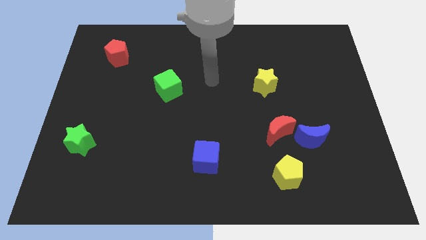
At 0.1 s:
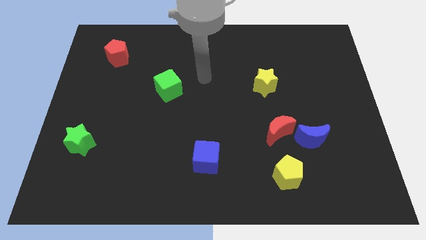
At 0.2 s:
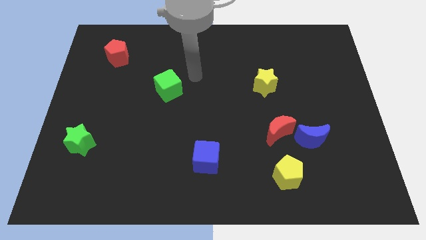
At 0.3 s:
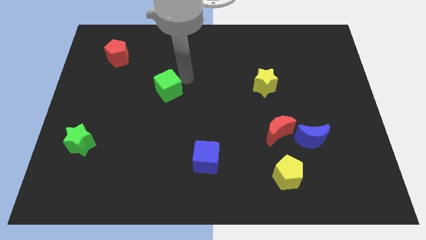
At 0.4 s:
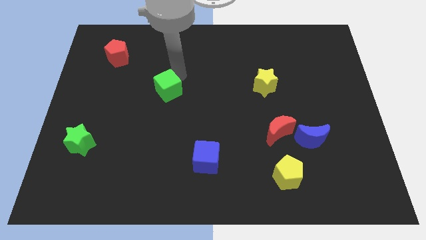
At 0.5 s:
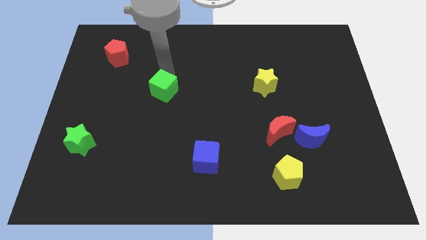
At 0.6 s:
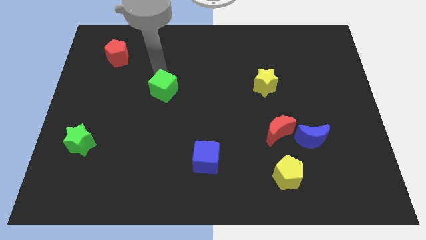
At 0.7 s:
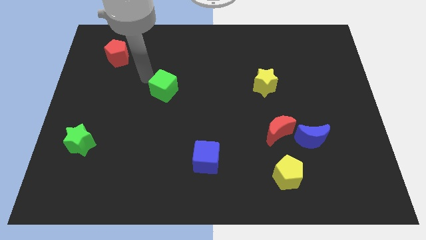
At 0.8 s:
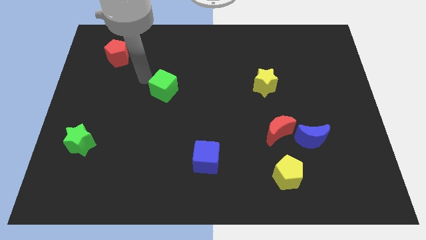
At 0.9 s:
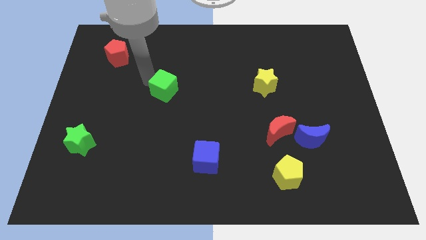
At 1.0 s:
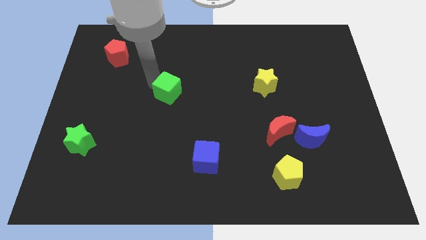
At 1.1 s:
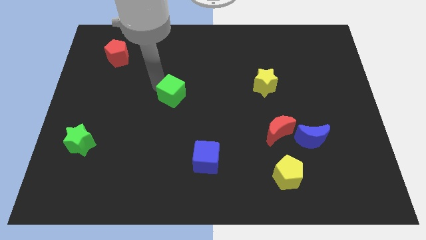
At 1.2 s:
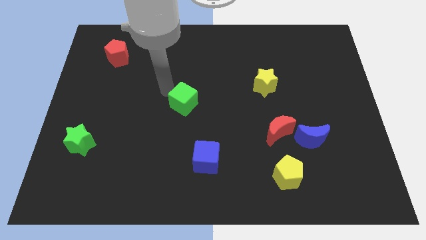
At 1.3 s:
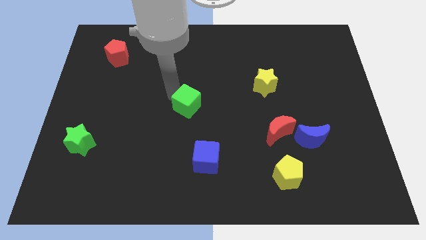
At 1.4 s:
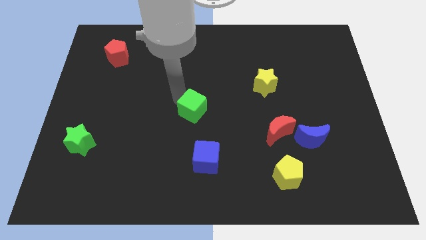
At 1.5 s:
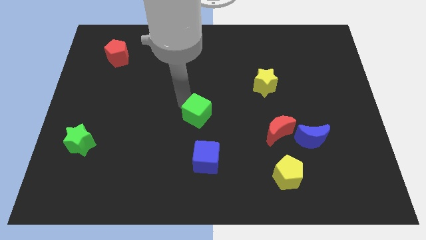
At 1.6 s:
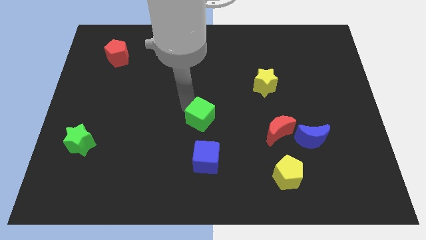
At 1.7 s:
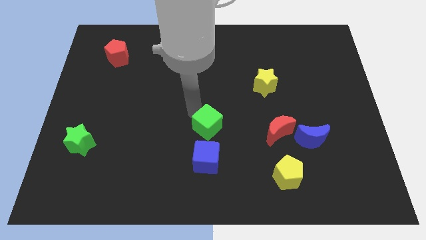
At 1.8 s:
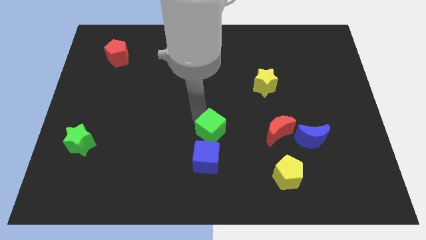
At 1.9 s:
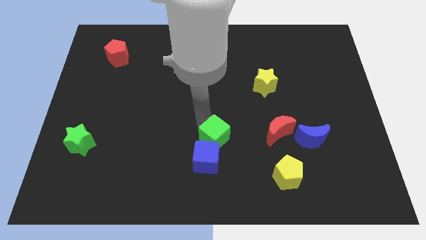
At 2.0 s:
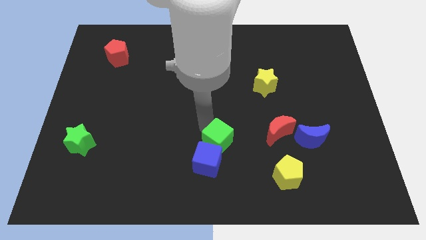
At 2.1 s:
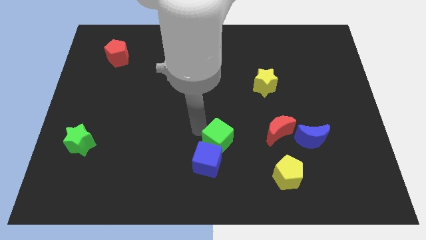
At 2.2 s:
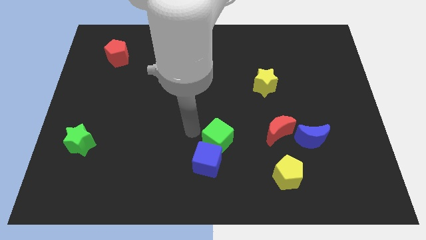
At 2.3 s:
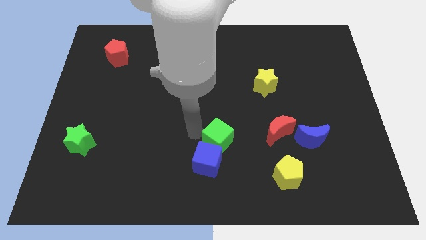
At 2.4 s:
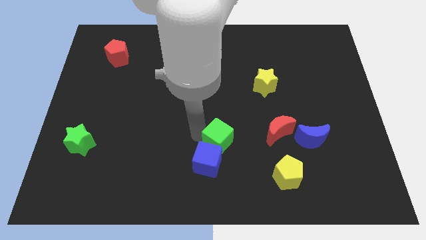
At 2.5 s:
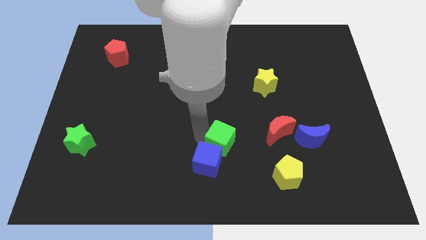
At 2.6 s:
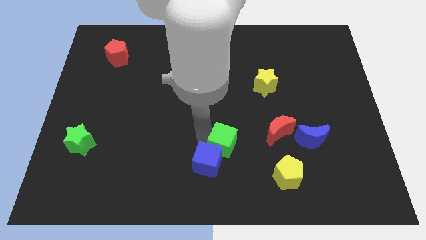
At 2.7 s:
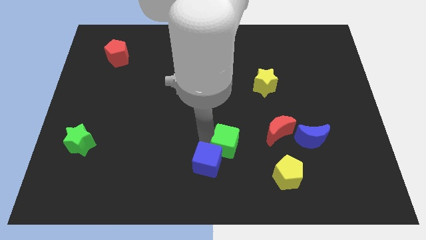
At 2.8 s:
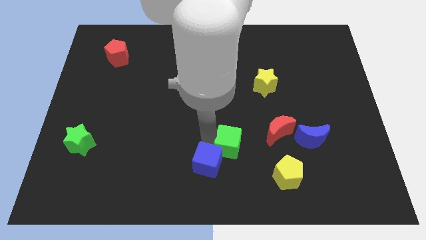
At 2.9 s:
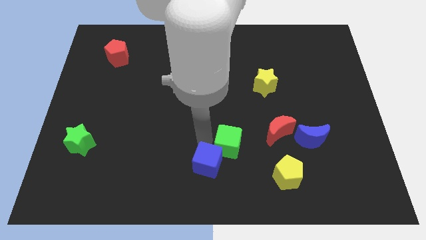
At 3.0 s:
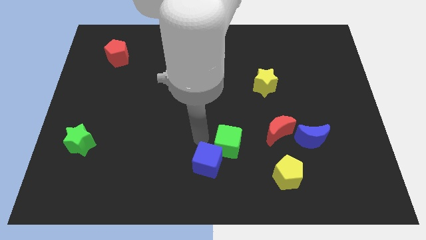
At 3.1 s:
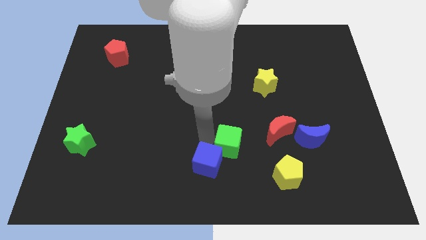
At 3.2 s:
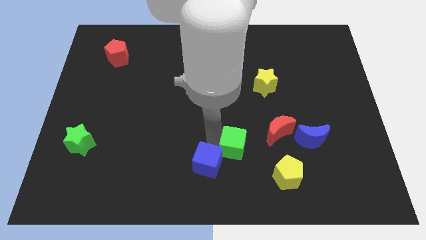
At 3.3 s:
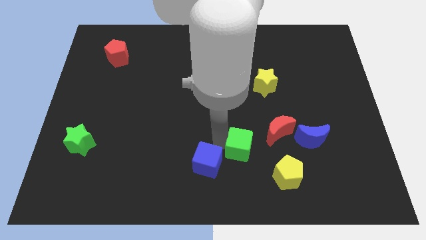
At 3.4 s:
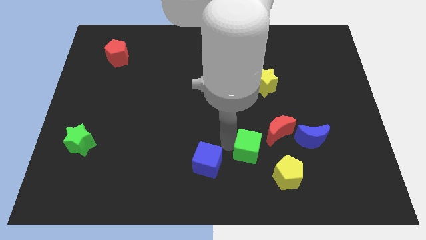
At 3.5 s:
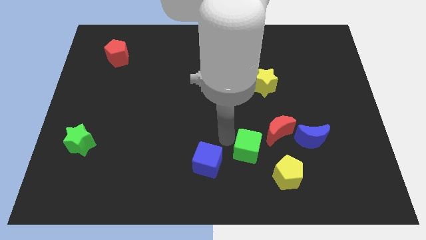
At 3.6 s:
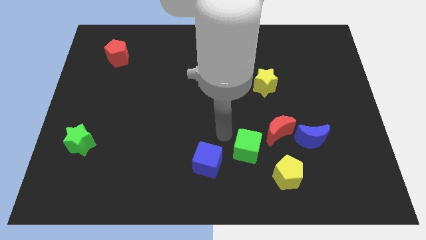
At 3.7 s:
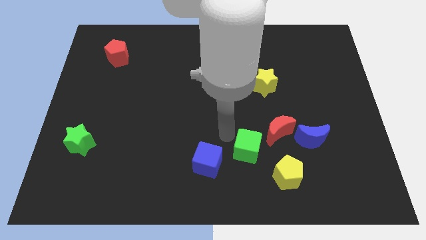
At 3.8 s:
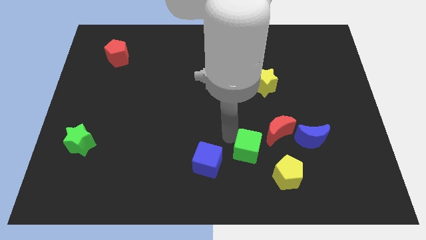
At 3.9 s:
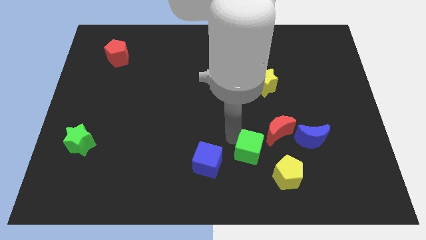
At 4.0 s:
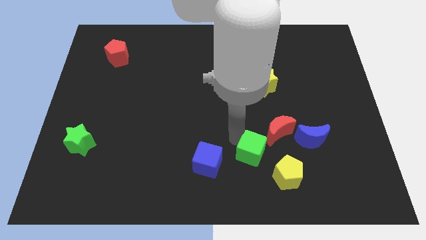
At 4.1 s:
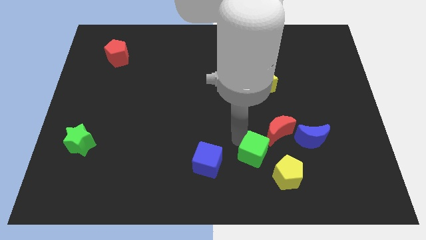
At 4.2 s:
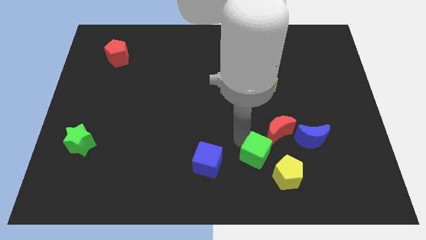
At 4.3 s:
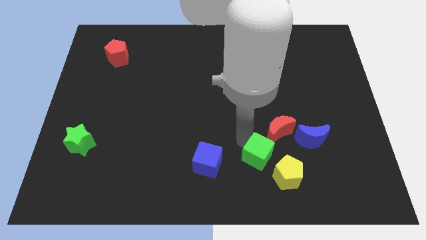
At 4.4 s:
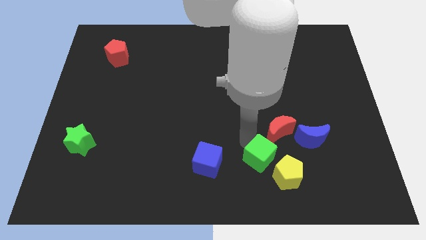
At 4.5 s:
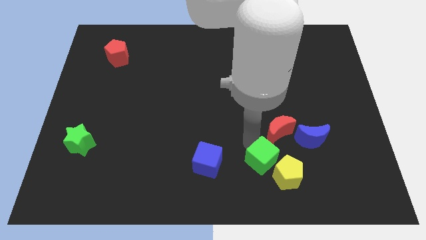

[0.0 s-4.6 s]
slide the green cube next to the yellow pentagon

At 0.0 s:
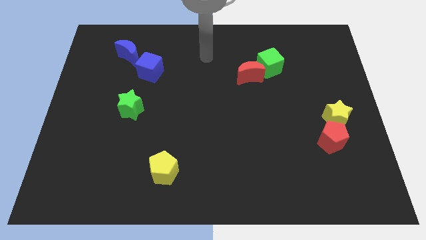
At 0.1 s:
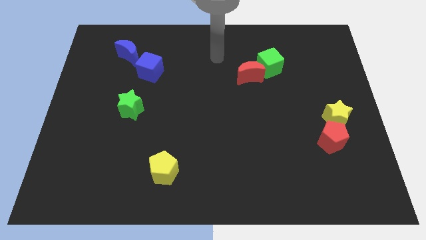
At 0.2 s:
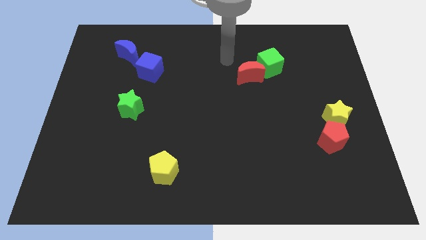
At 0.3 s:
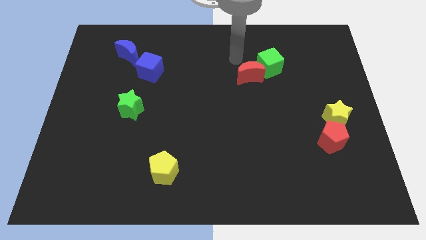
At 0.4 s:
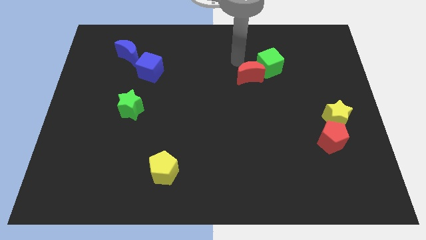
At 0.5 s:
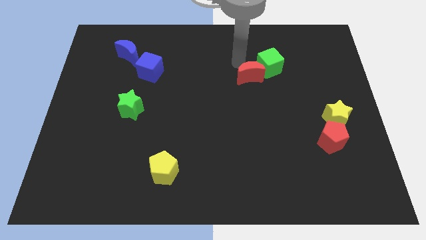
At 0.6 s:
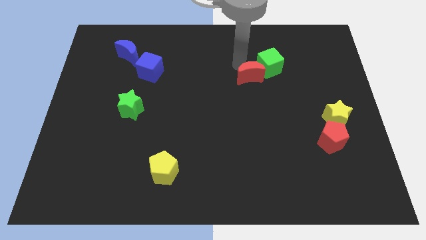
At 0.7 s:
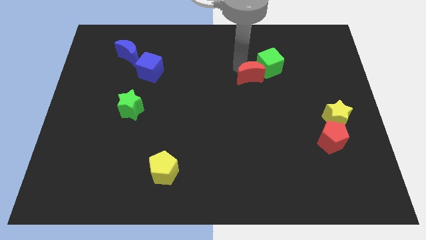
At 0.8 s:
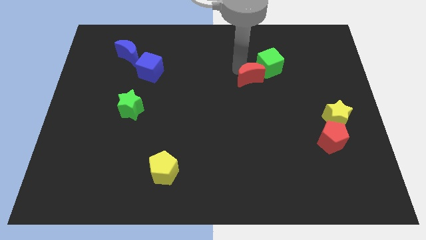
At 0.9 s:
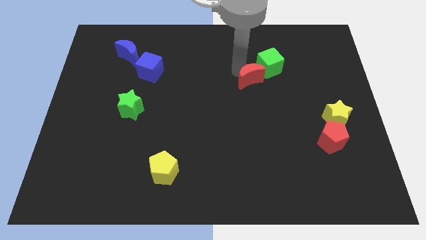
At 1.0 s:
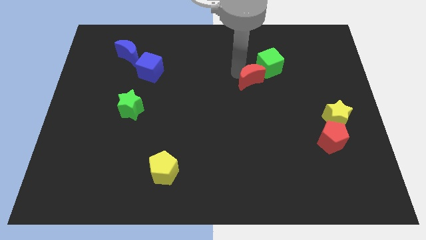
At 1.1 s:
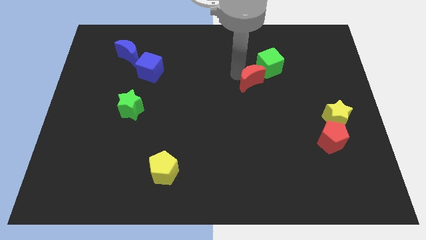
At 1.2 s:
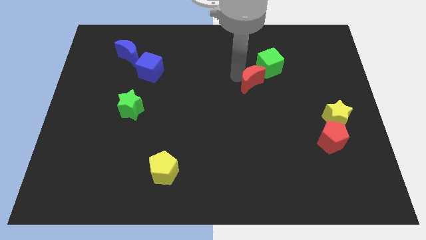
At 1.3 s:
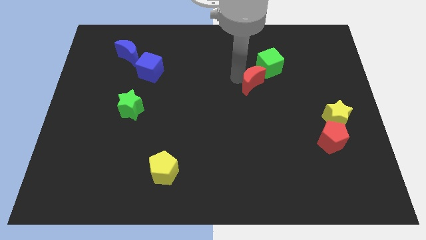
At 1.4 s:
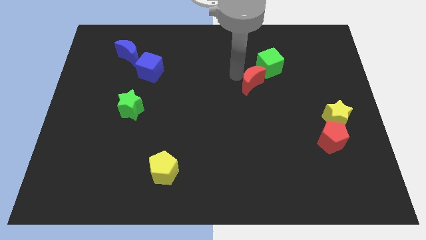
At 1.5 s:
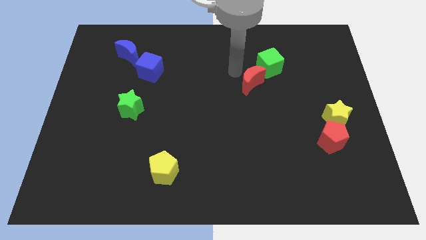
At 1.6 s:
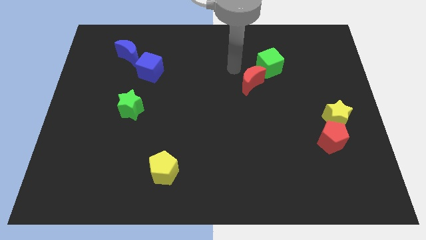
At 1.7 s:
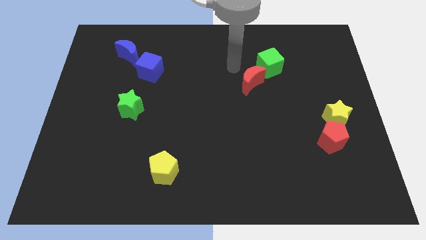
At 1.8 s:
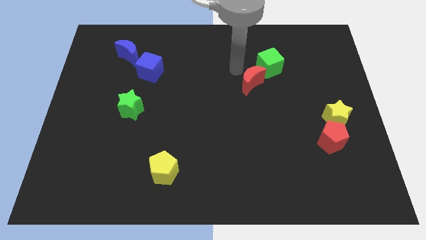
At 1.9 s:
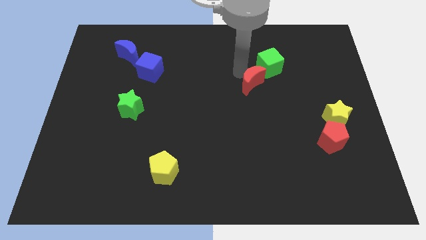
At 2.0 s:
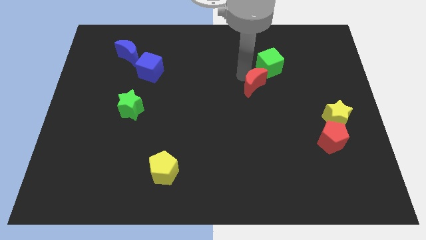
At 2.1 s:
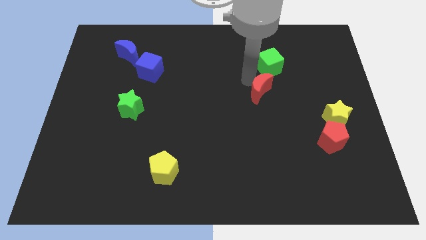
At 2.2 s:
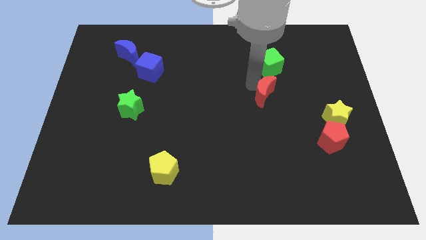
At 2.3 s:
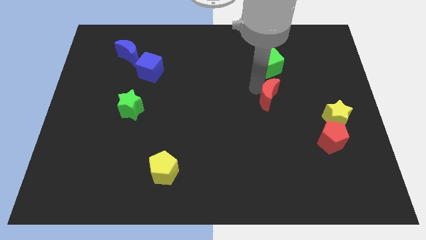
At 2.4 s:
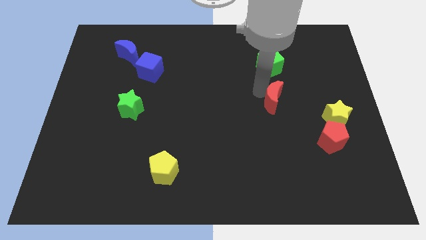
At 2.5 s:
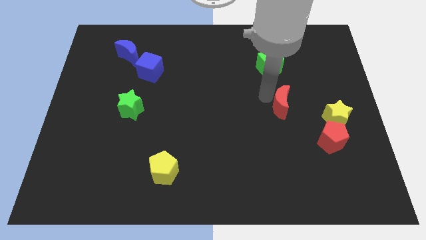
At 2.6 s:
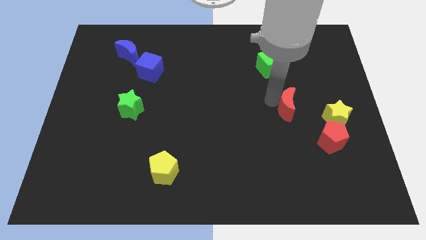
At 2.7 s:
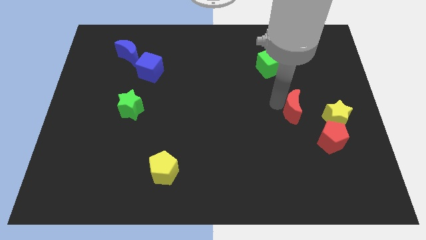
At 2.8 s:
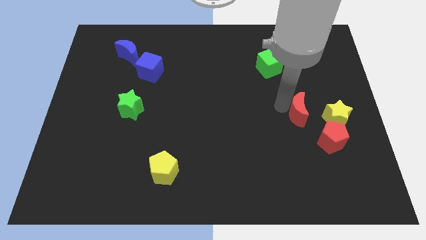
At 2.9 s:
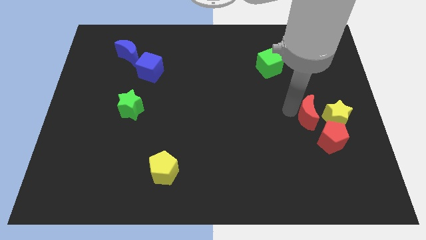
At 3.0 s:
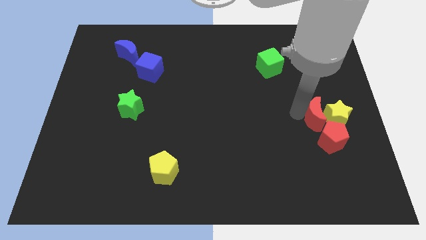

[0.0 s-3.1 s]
push the red moon close to the yellow star
